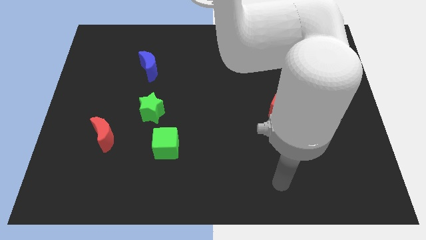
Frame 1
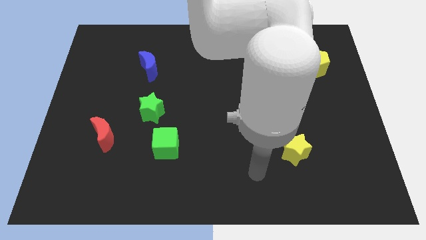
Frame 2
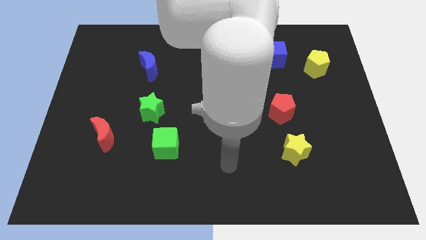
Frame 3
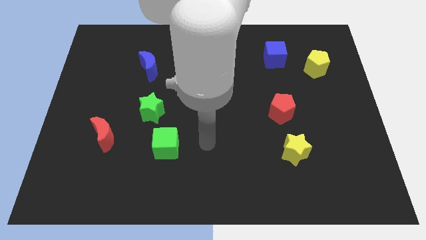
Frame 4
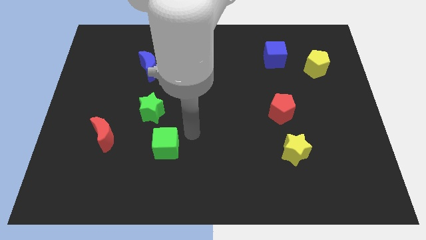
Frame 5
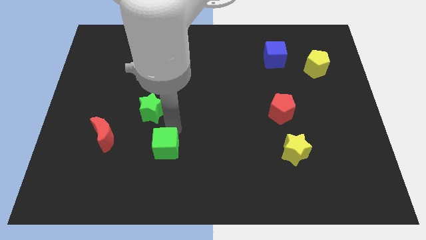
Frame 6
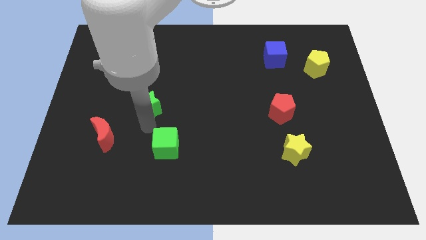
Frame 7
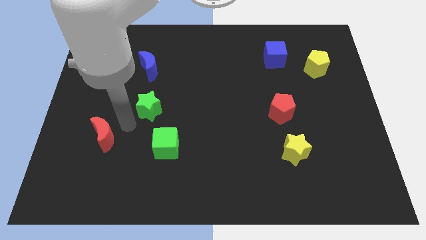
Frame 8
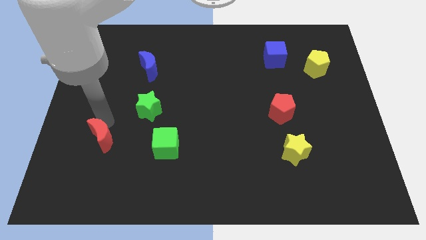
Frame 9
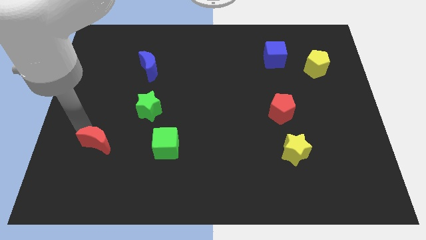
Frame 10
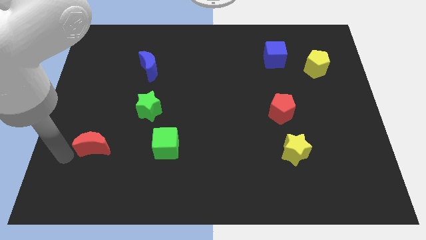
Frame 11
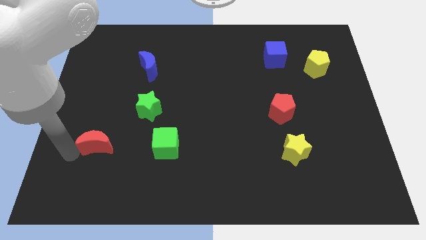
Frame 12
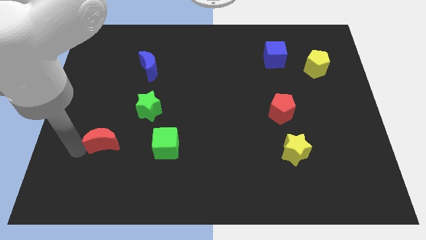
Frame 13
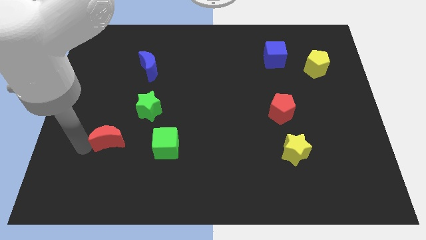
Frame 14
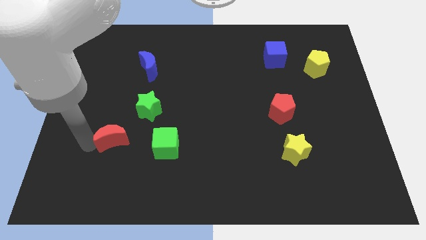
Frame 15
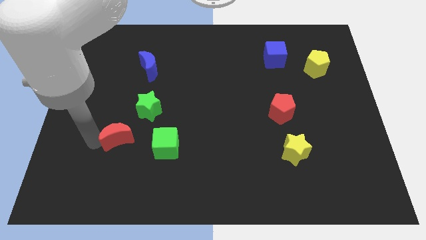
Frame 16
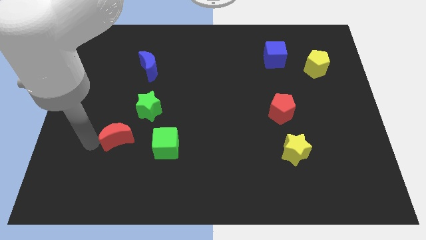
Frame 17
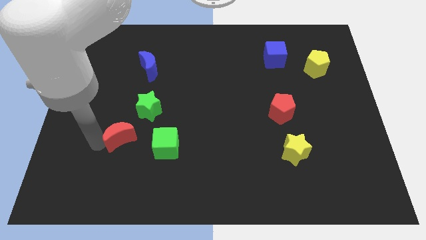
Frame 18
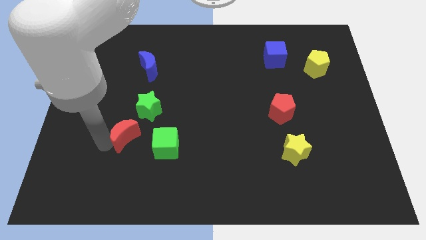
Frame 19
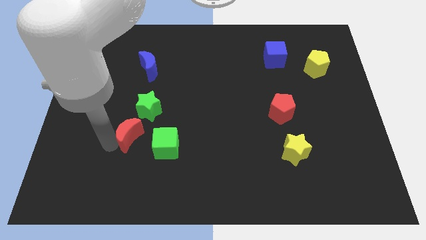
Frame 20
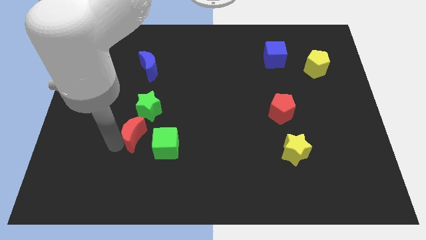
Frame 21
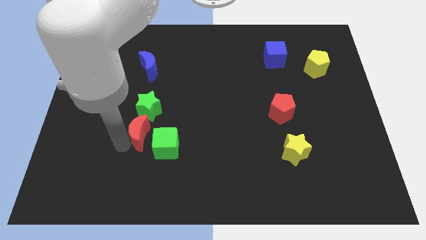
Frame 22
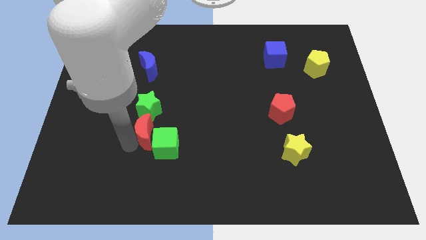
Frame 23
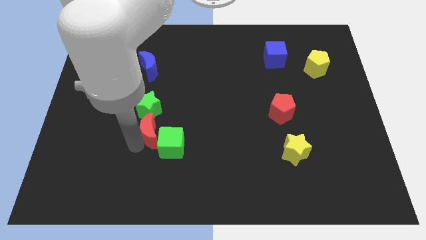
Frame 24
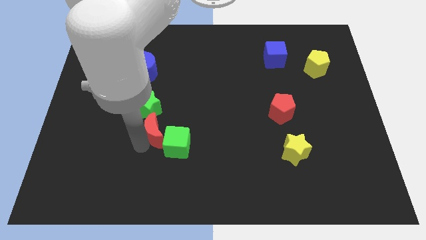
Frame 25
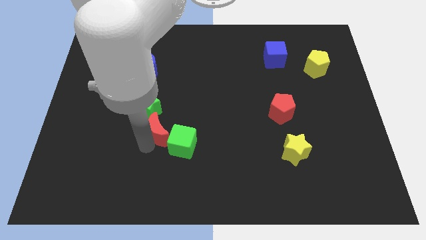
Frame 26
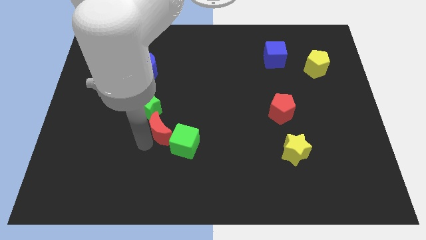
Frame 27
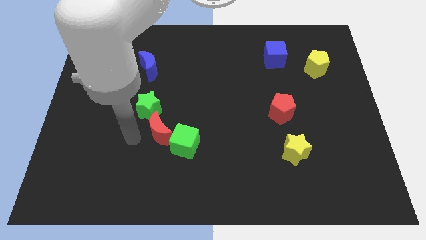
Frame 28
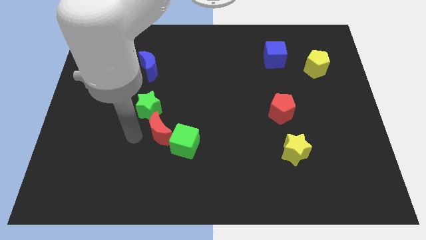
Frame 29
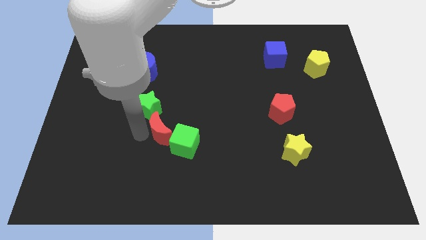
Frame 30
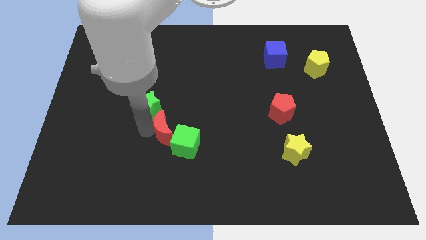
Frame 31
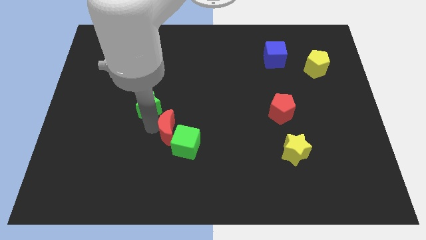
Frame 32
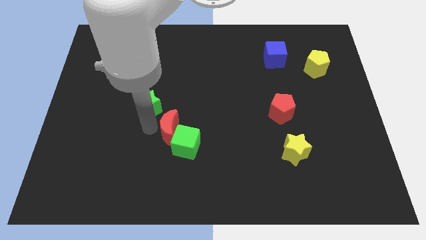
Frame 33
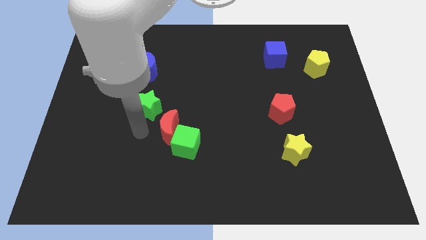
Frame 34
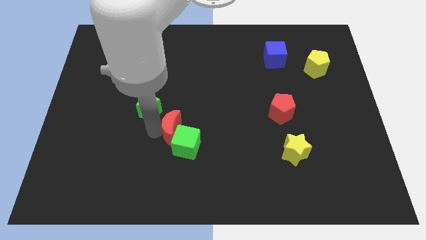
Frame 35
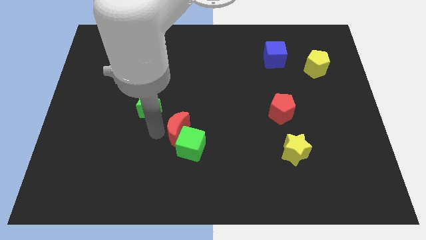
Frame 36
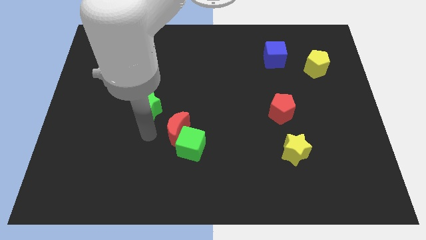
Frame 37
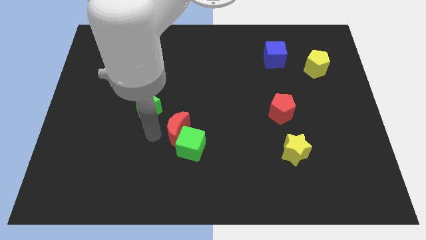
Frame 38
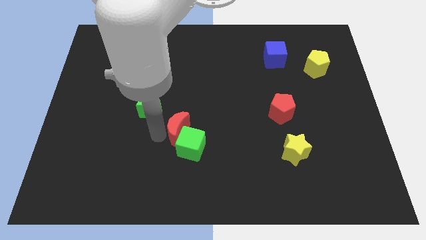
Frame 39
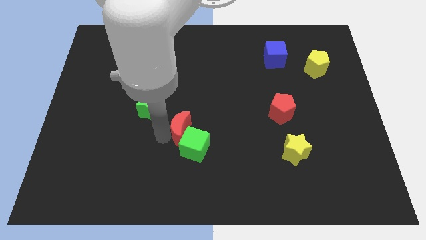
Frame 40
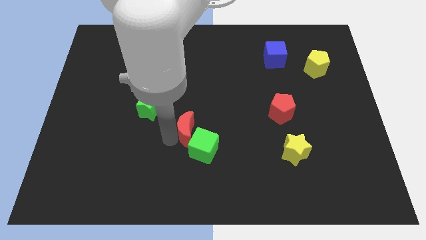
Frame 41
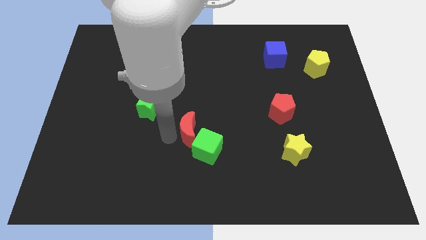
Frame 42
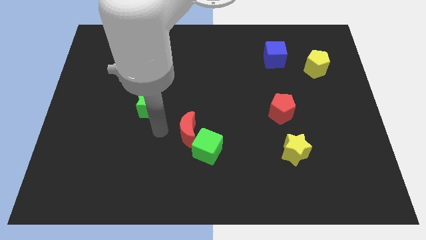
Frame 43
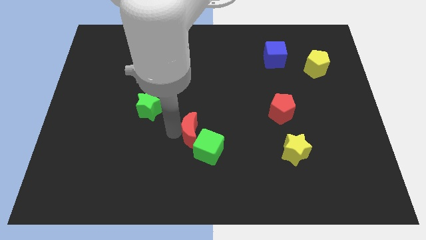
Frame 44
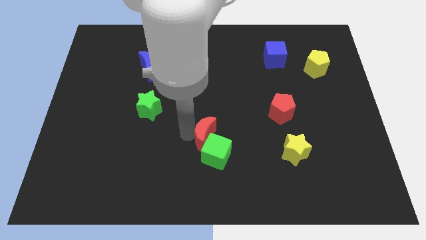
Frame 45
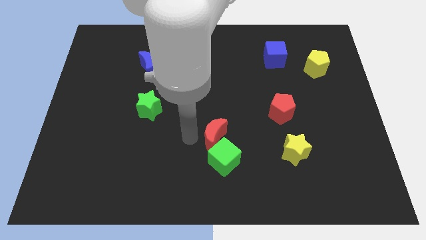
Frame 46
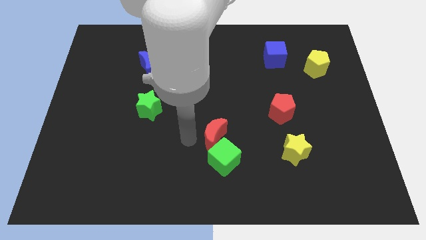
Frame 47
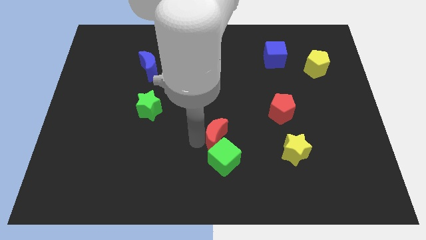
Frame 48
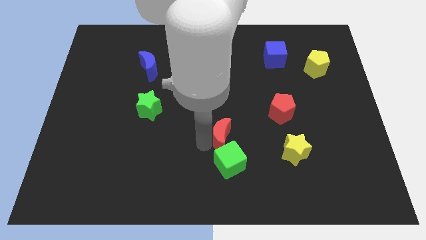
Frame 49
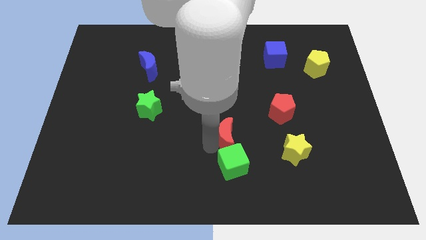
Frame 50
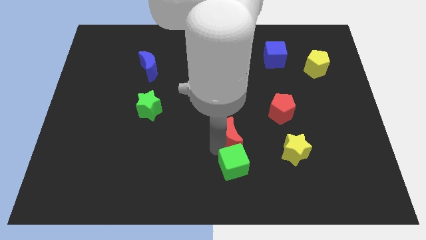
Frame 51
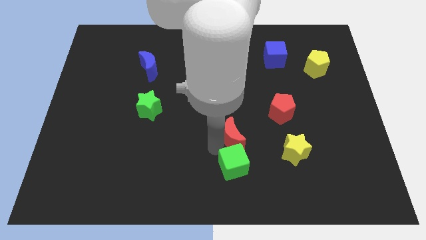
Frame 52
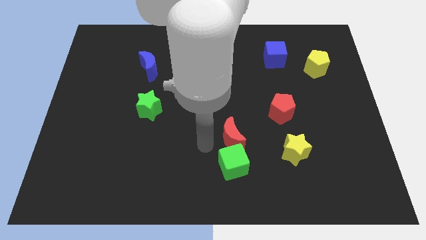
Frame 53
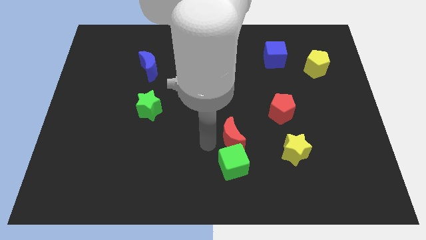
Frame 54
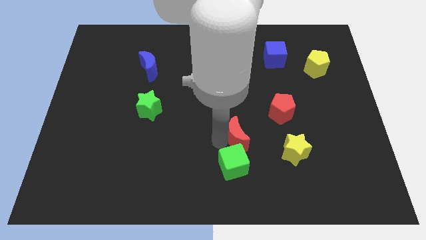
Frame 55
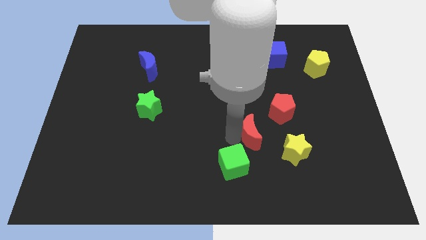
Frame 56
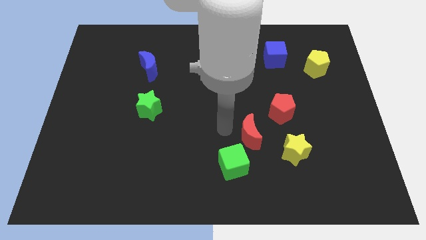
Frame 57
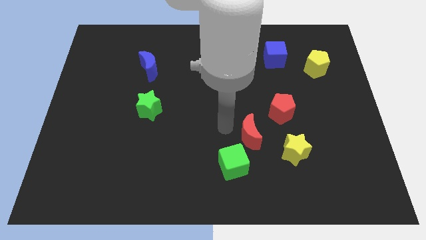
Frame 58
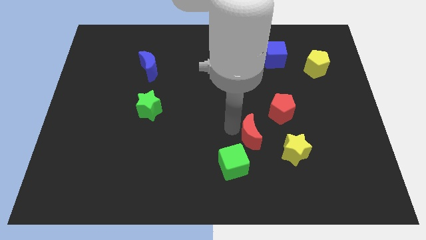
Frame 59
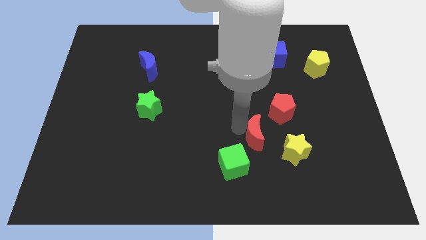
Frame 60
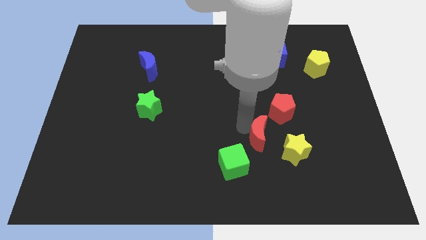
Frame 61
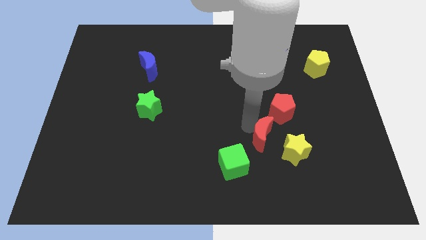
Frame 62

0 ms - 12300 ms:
move the red moon below the red pentagon
